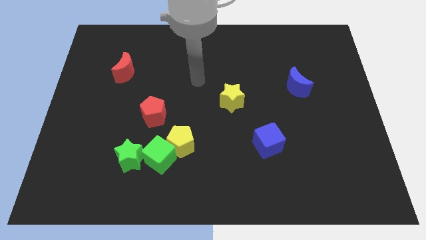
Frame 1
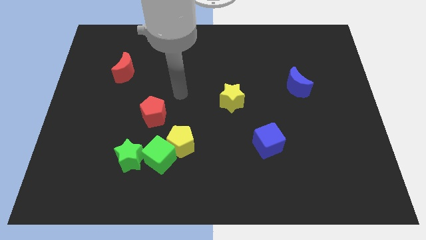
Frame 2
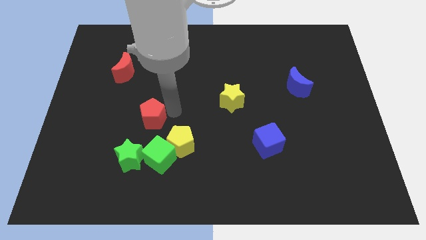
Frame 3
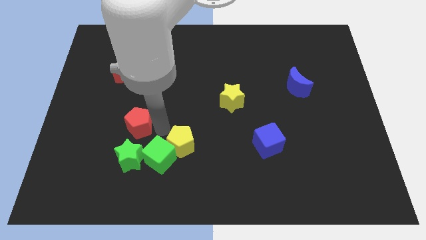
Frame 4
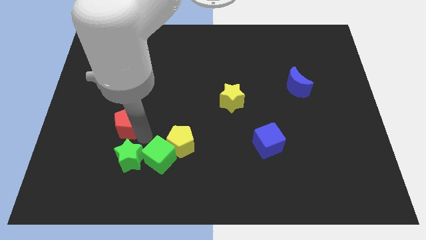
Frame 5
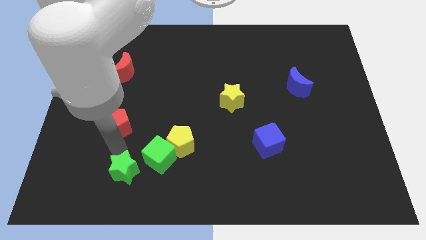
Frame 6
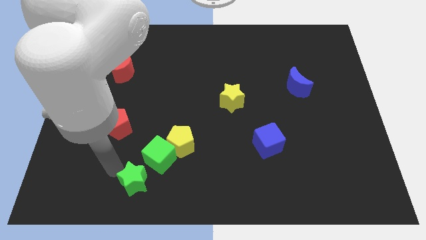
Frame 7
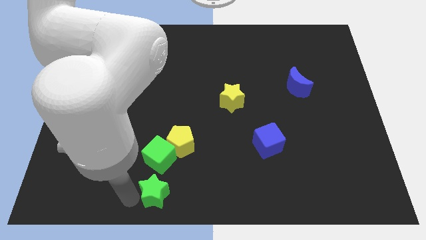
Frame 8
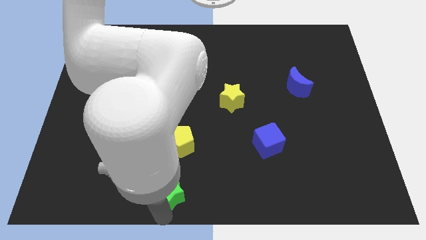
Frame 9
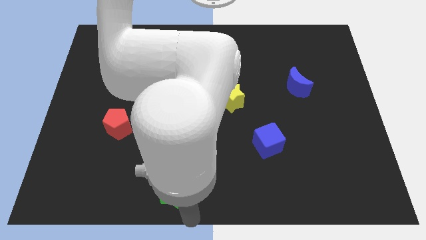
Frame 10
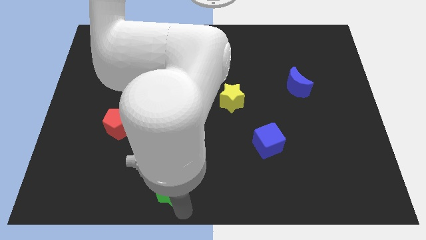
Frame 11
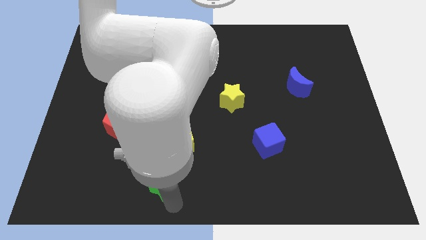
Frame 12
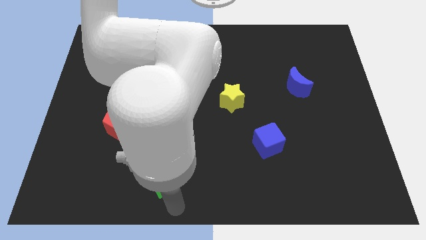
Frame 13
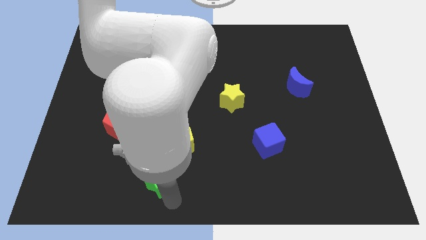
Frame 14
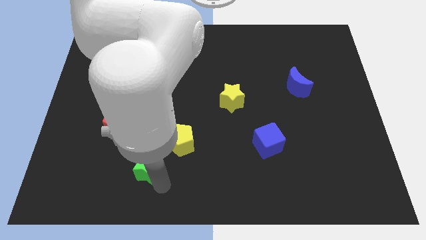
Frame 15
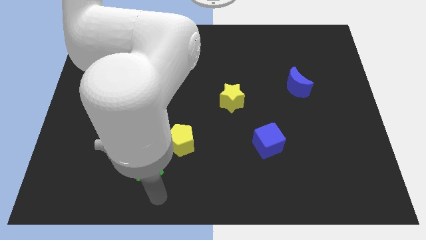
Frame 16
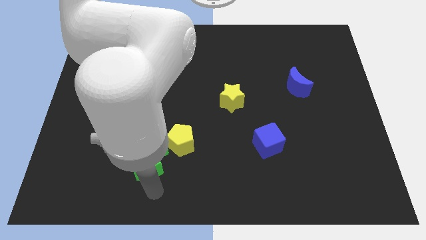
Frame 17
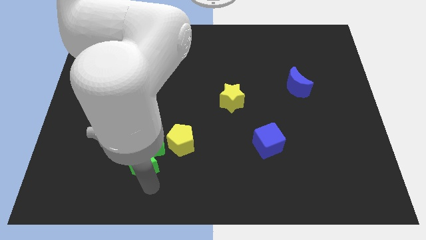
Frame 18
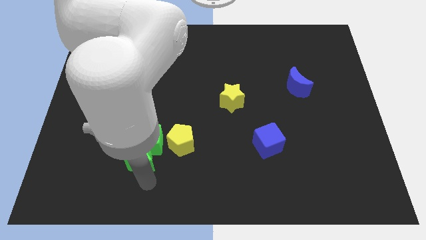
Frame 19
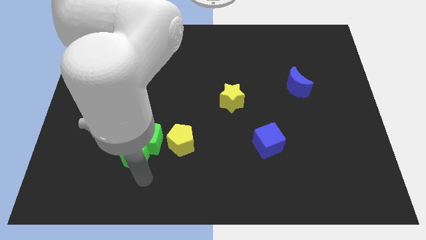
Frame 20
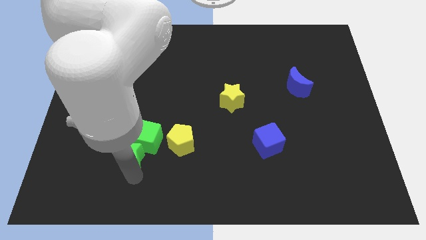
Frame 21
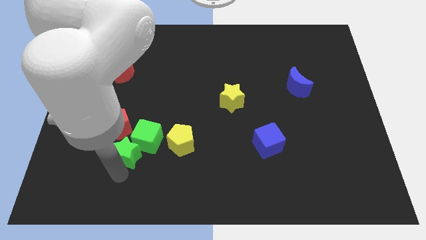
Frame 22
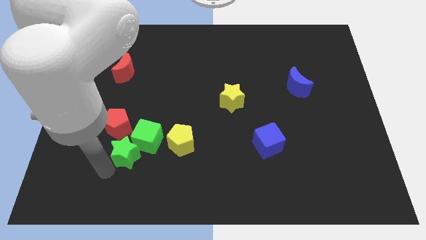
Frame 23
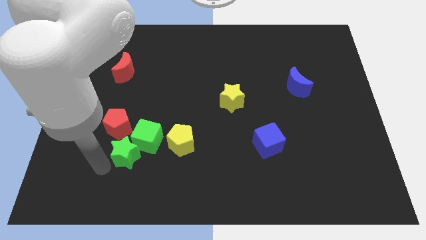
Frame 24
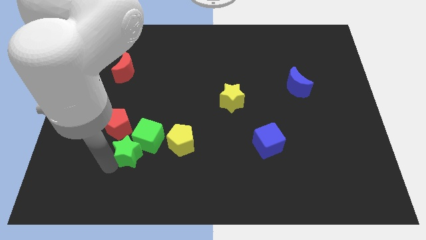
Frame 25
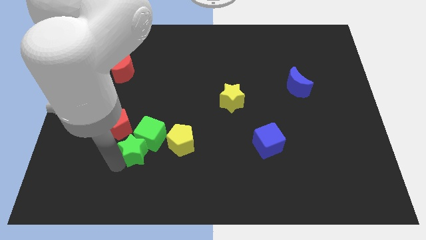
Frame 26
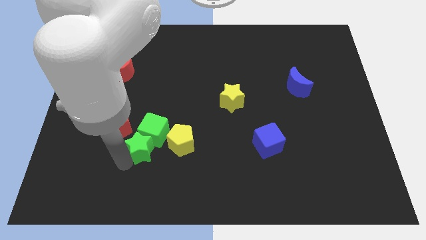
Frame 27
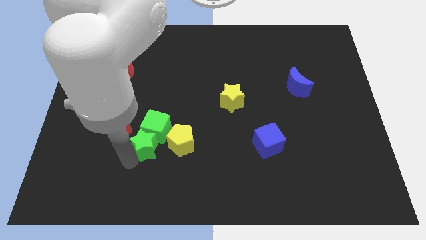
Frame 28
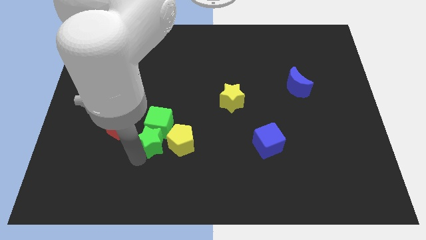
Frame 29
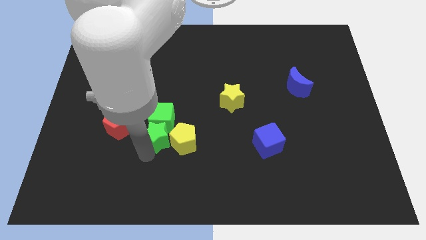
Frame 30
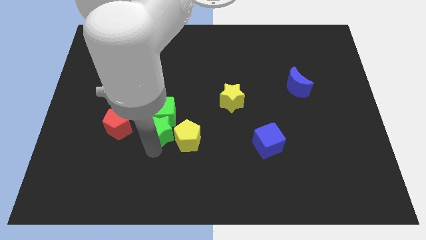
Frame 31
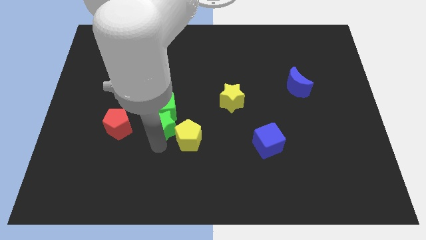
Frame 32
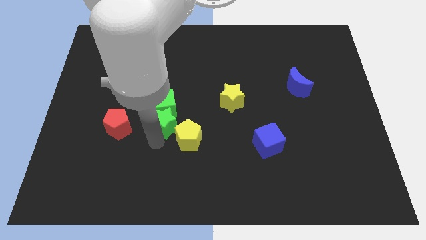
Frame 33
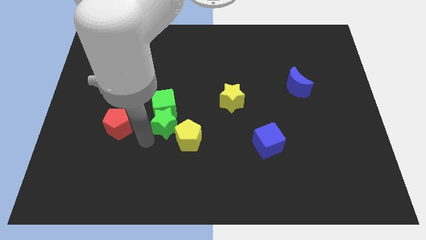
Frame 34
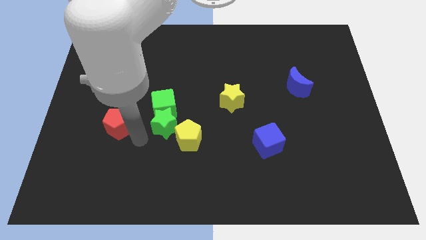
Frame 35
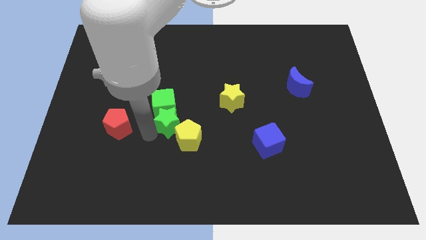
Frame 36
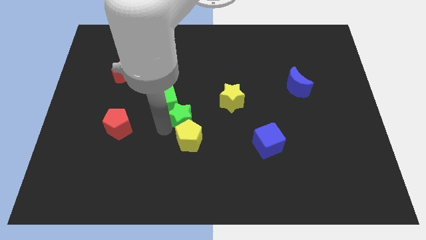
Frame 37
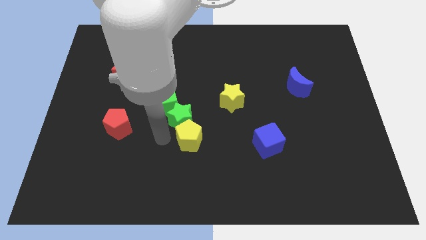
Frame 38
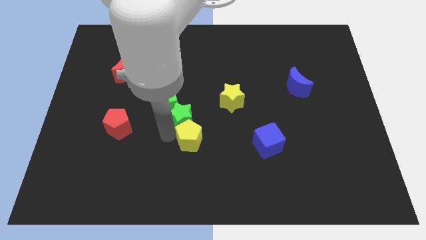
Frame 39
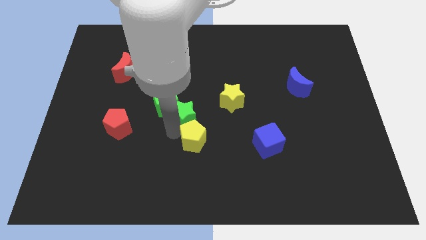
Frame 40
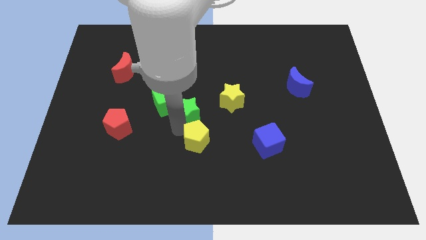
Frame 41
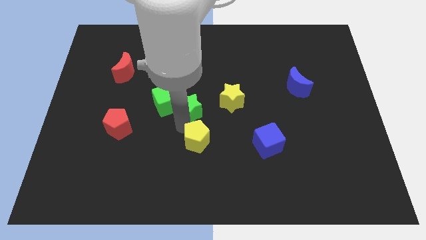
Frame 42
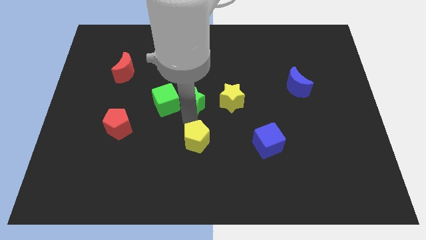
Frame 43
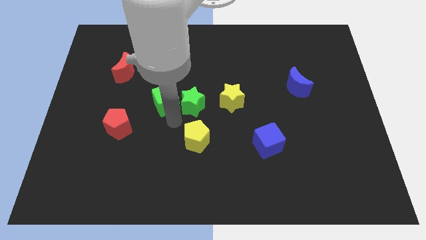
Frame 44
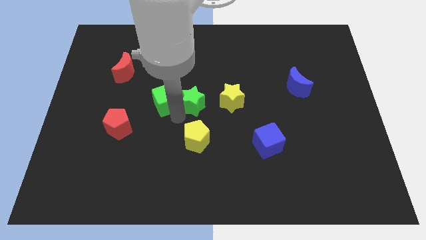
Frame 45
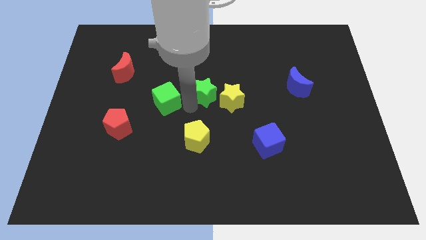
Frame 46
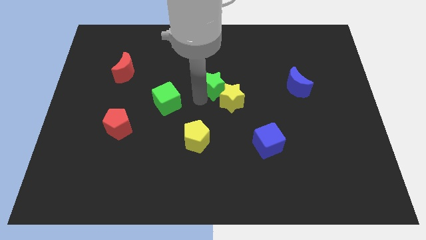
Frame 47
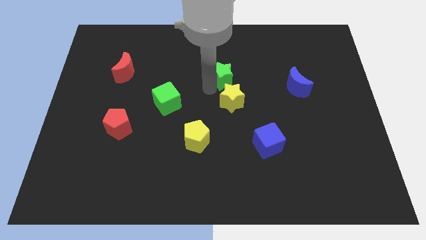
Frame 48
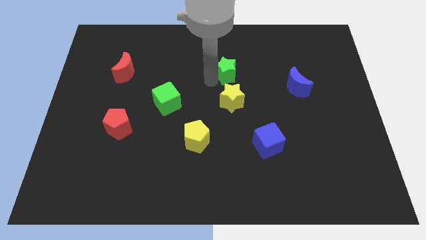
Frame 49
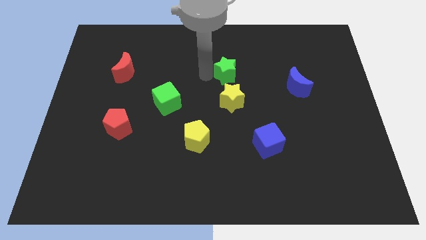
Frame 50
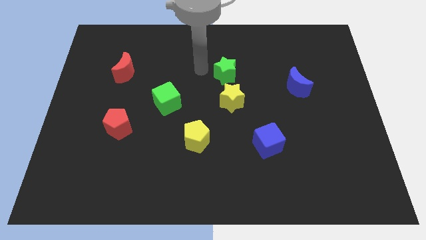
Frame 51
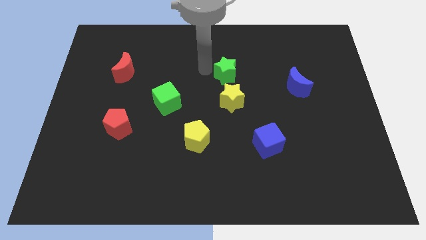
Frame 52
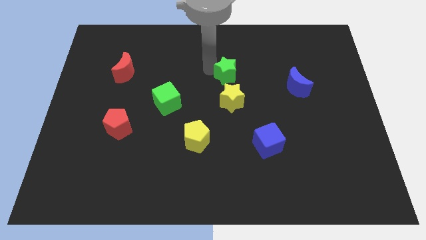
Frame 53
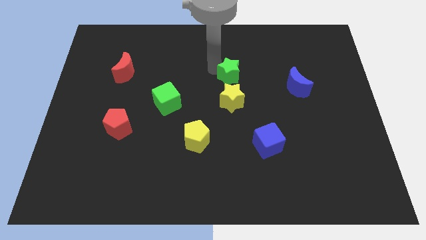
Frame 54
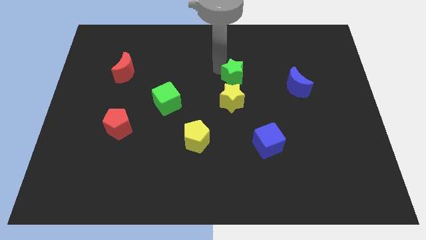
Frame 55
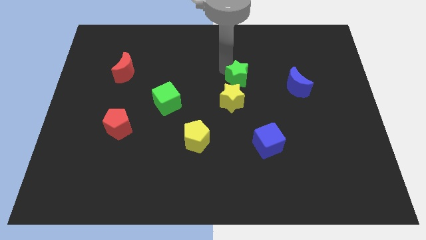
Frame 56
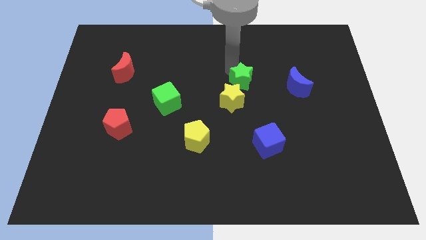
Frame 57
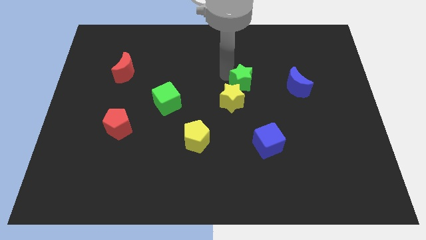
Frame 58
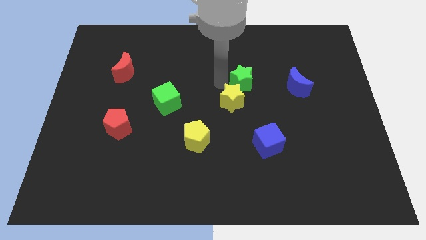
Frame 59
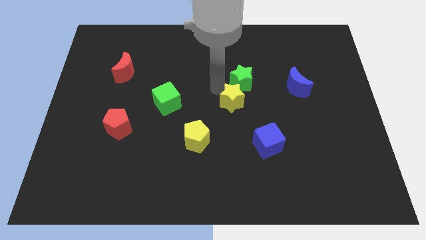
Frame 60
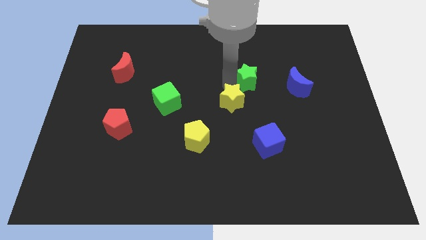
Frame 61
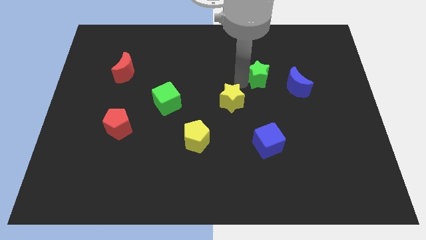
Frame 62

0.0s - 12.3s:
put the green star to the top left side of the blue moon
